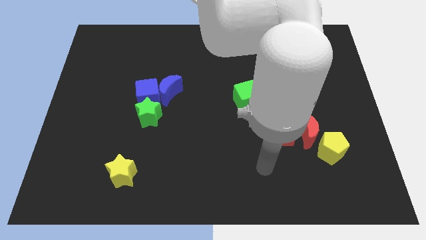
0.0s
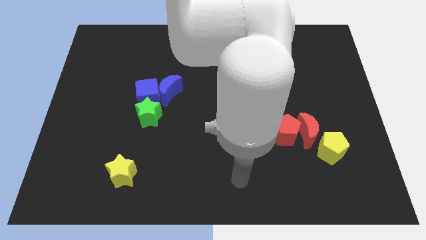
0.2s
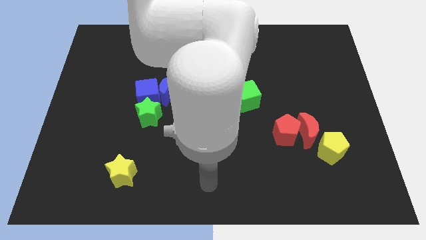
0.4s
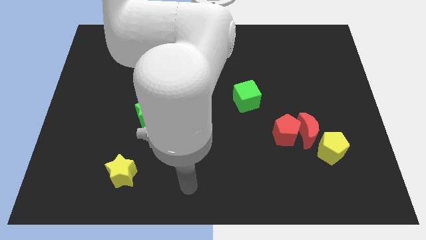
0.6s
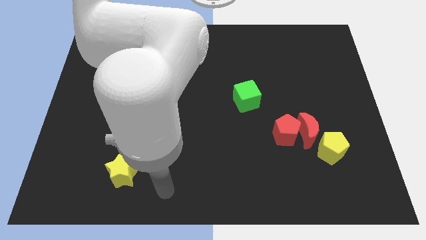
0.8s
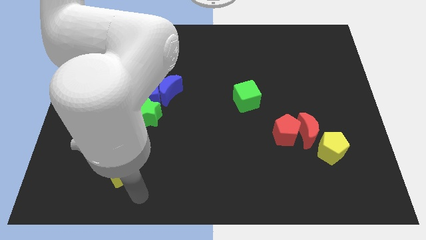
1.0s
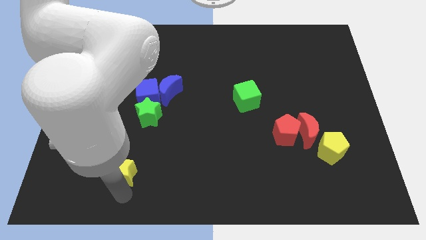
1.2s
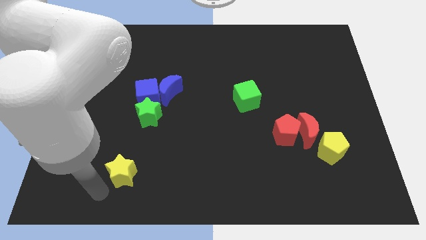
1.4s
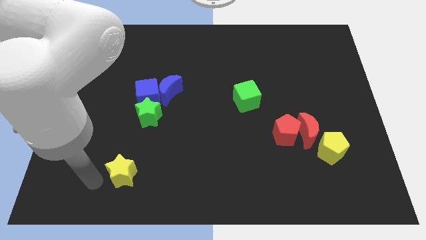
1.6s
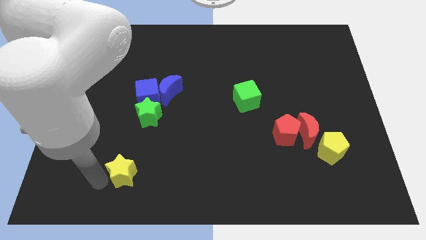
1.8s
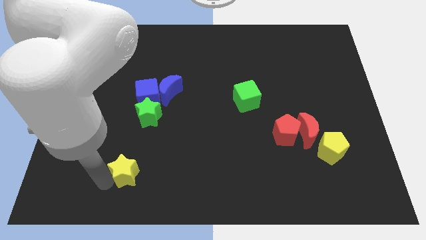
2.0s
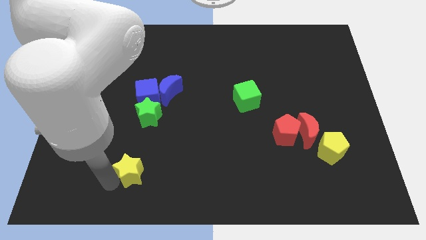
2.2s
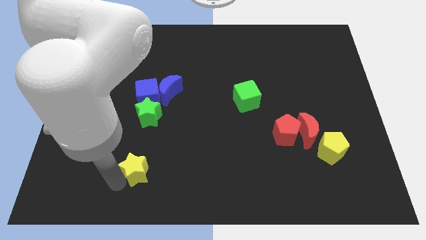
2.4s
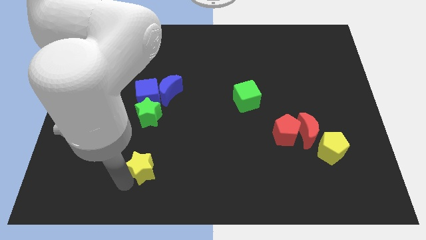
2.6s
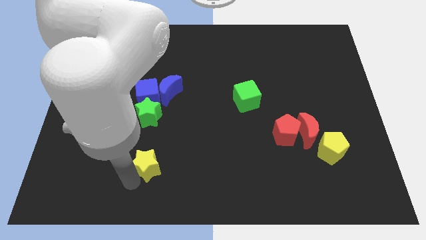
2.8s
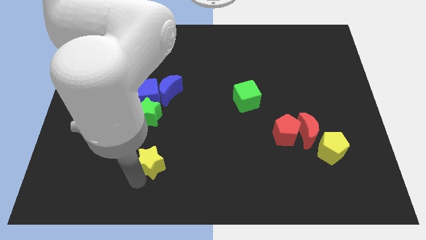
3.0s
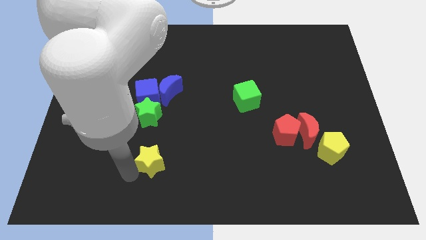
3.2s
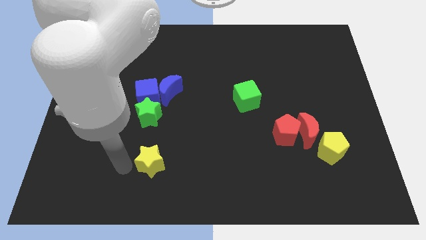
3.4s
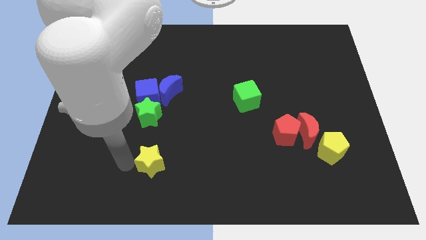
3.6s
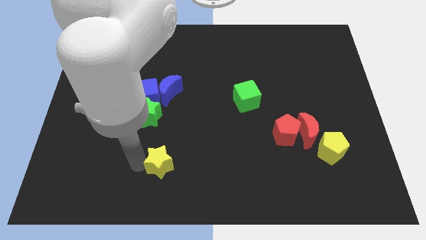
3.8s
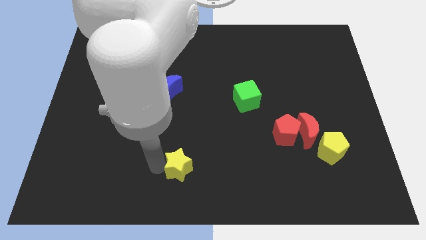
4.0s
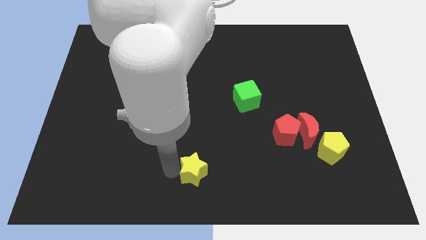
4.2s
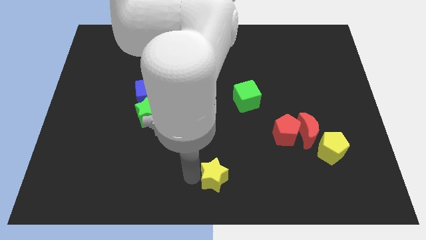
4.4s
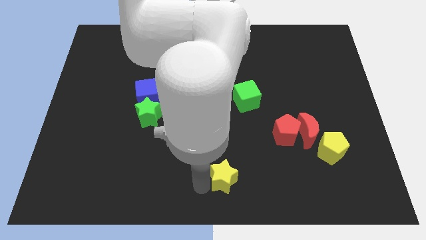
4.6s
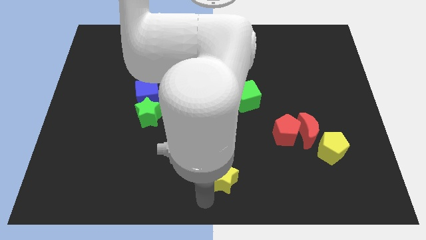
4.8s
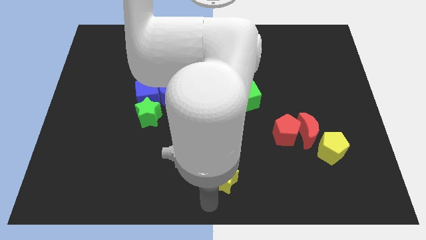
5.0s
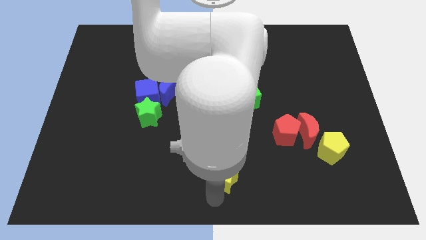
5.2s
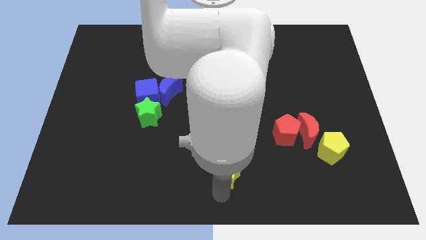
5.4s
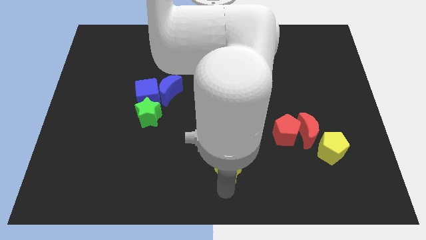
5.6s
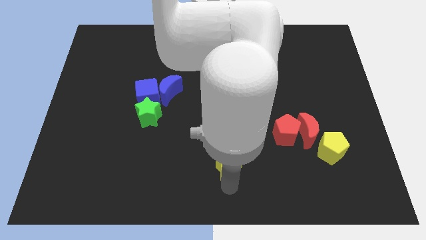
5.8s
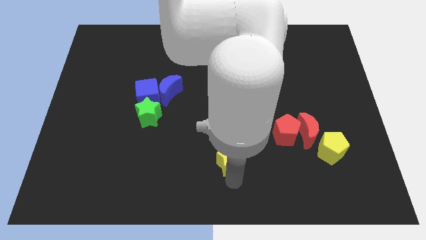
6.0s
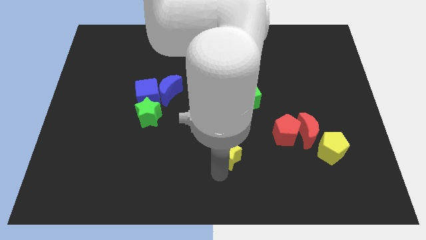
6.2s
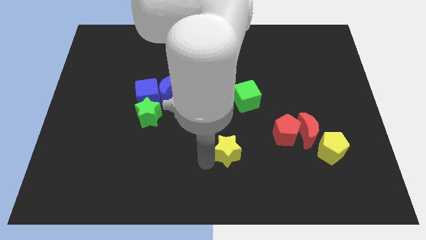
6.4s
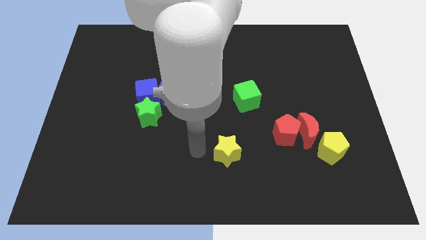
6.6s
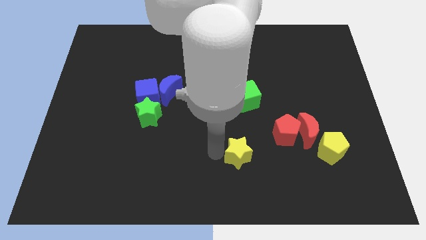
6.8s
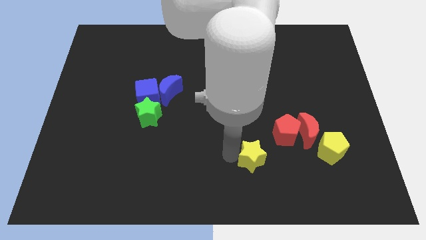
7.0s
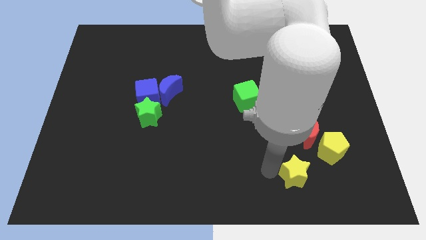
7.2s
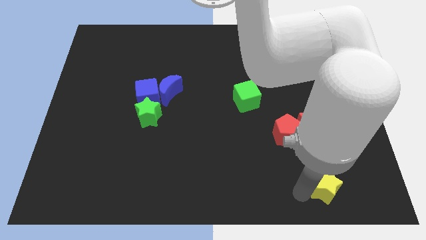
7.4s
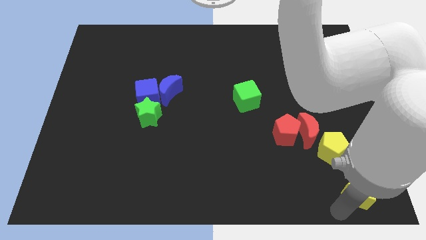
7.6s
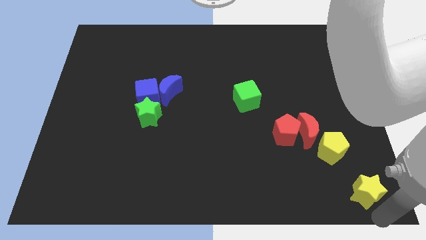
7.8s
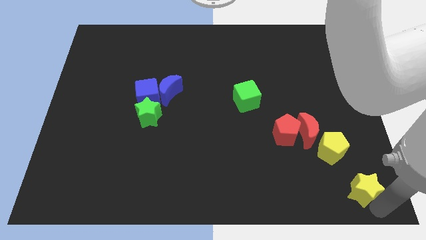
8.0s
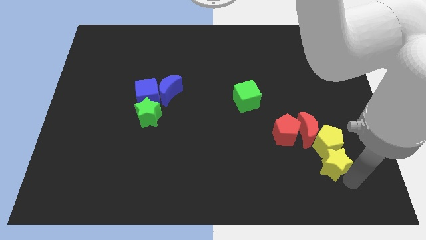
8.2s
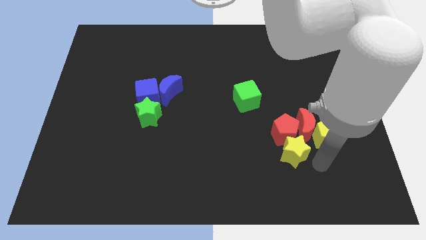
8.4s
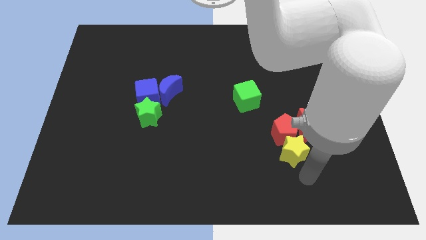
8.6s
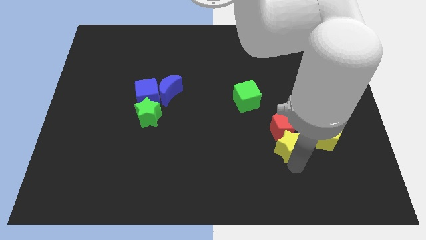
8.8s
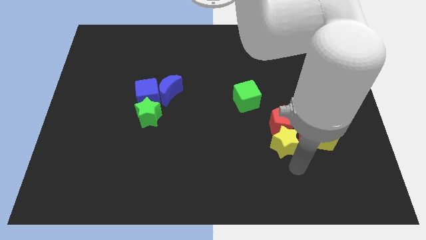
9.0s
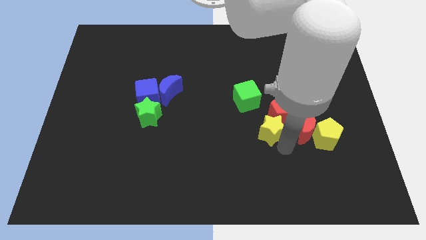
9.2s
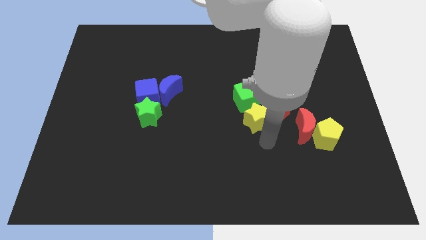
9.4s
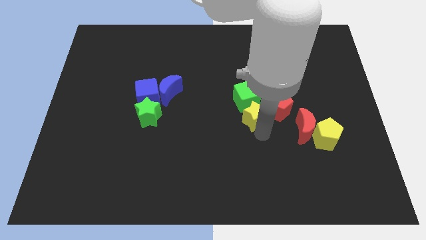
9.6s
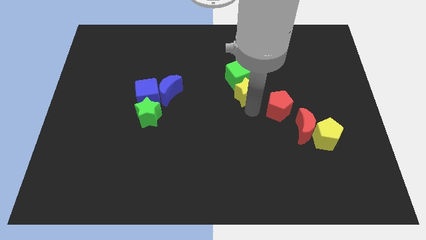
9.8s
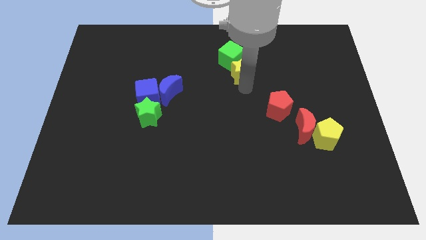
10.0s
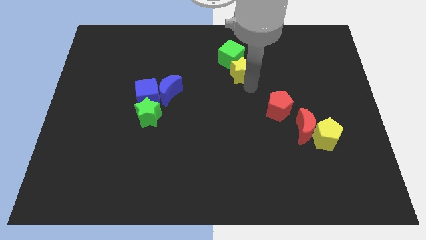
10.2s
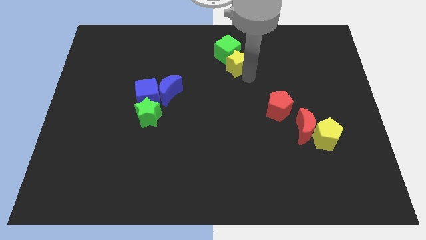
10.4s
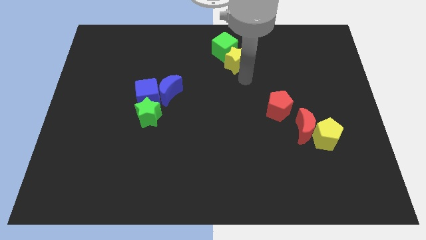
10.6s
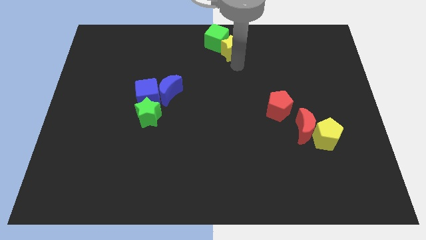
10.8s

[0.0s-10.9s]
slide the yellow star to the top side

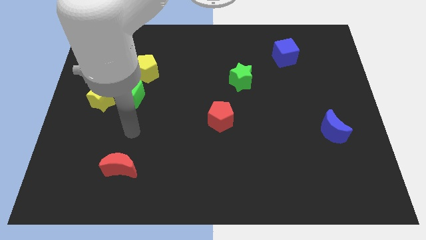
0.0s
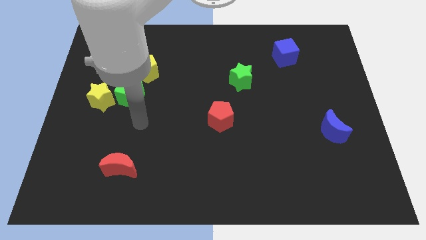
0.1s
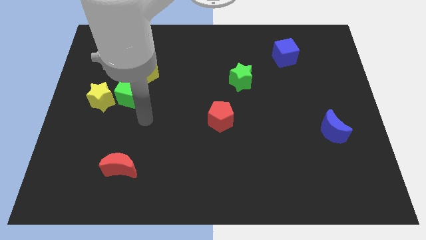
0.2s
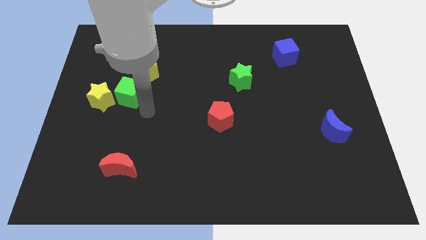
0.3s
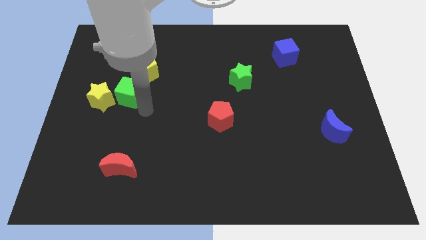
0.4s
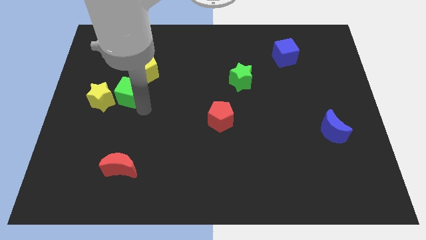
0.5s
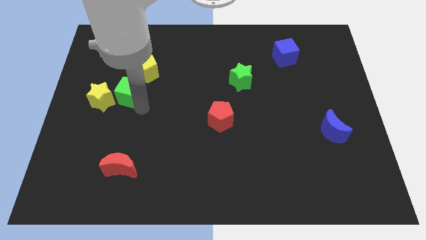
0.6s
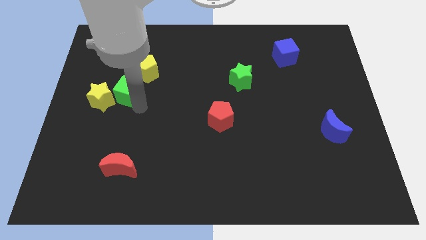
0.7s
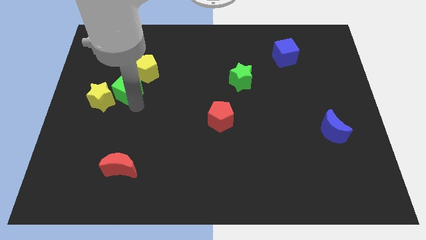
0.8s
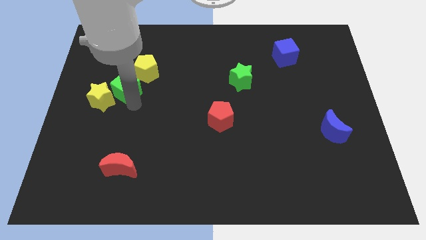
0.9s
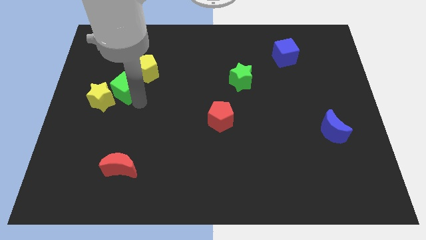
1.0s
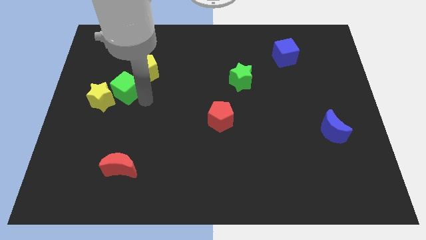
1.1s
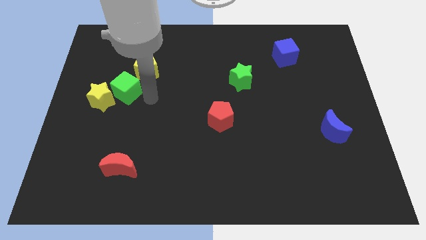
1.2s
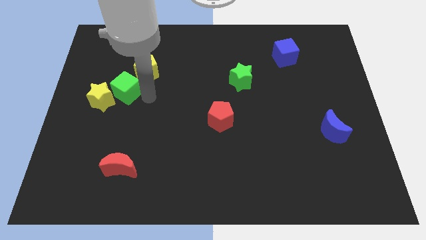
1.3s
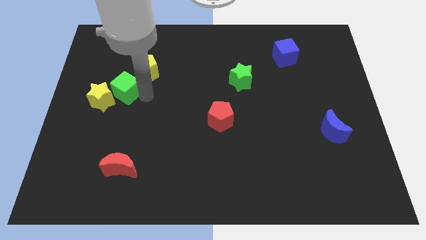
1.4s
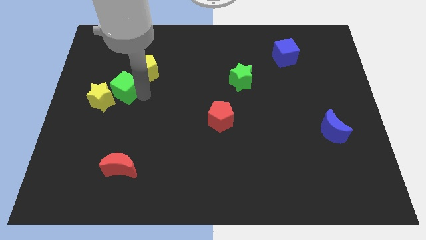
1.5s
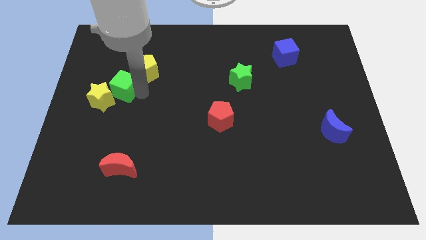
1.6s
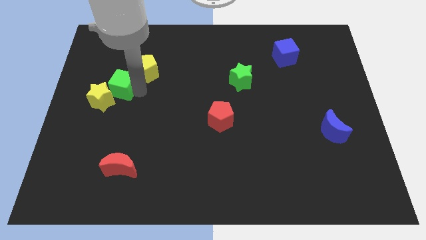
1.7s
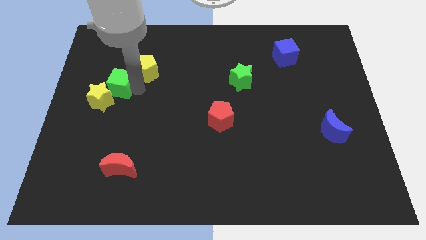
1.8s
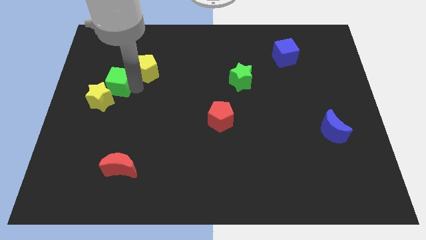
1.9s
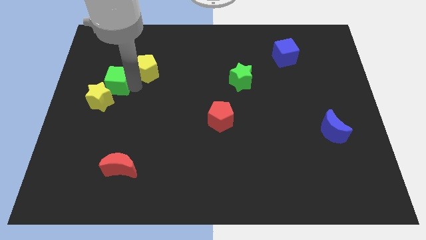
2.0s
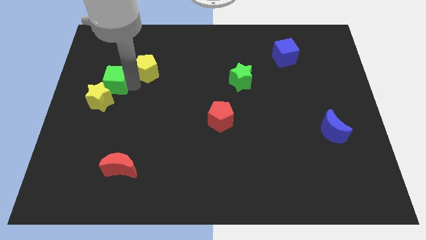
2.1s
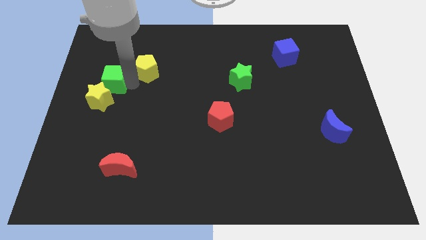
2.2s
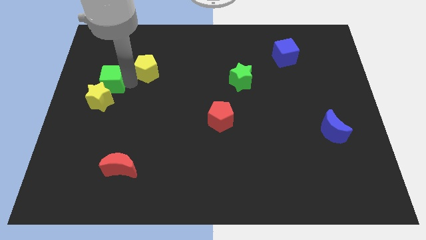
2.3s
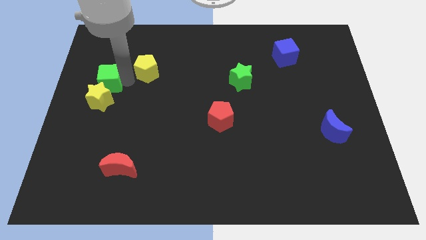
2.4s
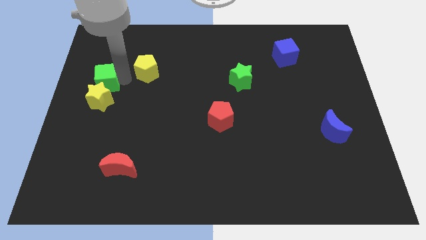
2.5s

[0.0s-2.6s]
move the green cube to the left side
